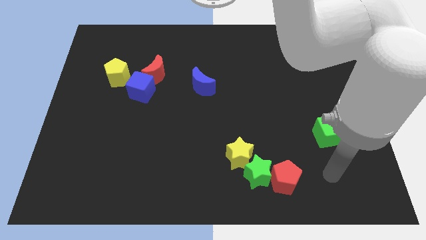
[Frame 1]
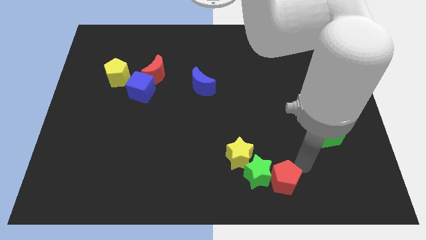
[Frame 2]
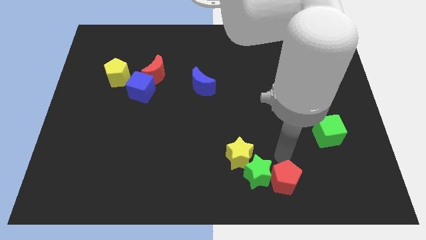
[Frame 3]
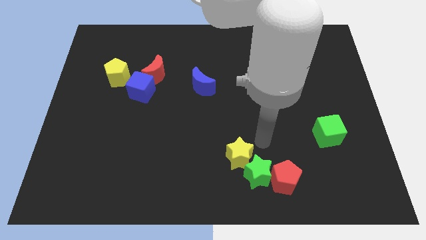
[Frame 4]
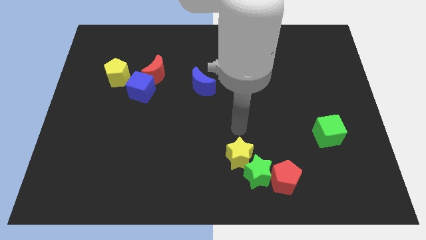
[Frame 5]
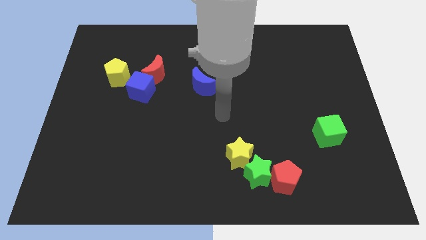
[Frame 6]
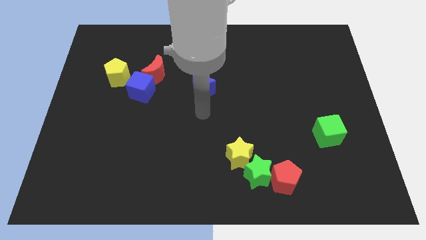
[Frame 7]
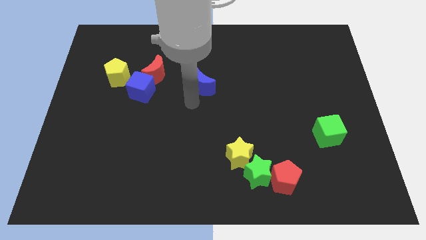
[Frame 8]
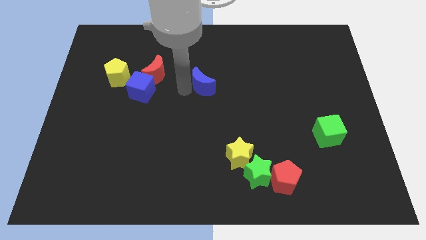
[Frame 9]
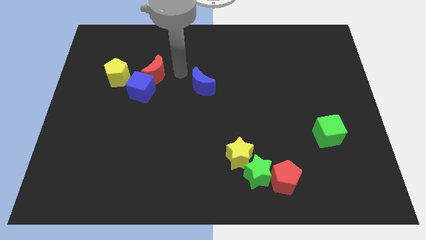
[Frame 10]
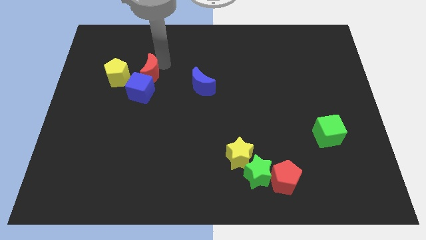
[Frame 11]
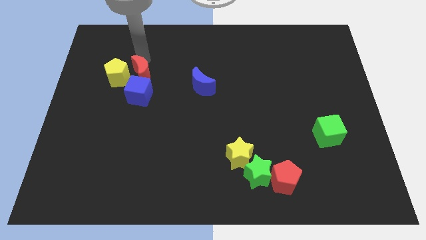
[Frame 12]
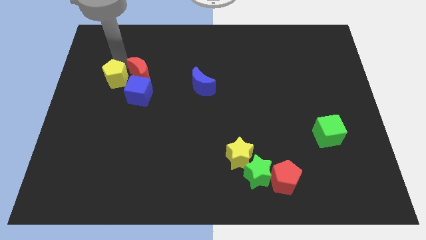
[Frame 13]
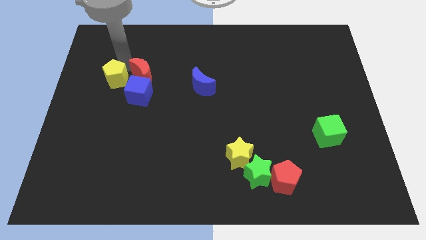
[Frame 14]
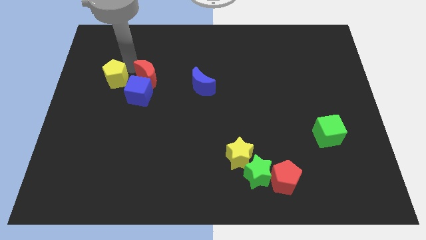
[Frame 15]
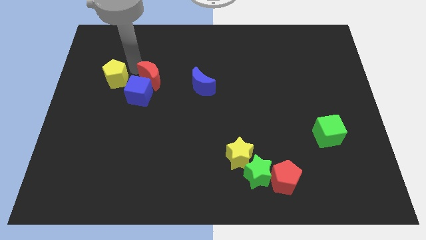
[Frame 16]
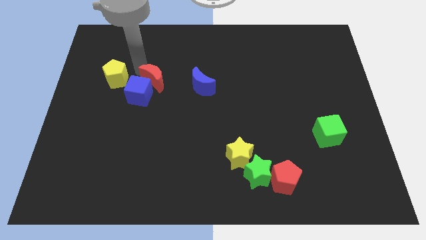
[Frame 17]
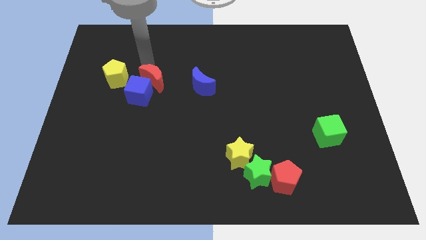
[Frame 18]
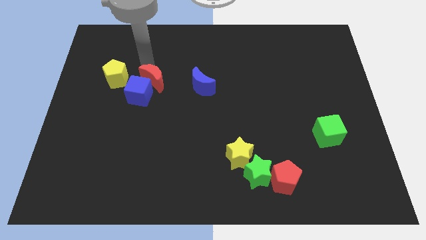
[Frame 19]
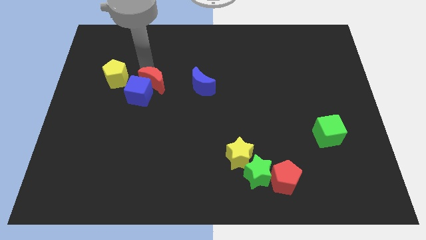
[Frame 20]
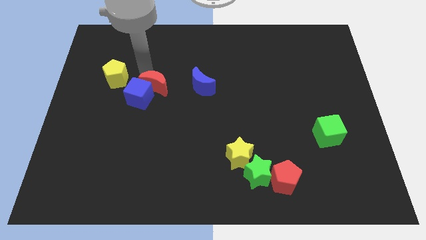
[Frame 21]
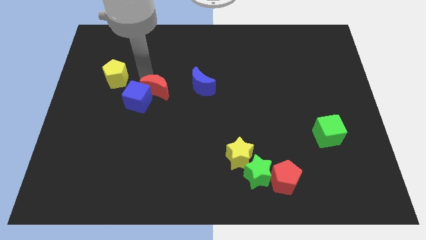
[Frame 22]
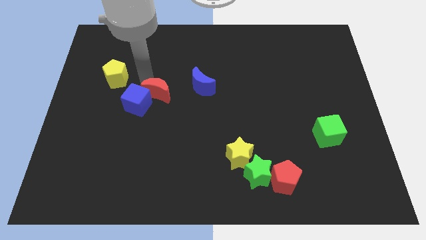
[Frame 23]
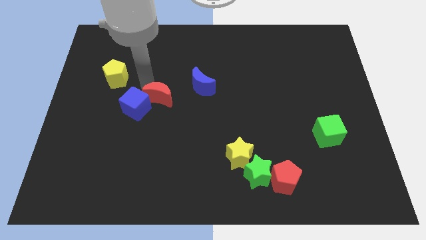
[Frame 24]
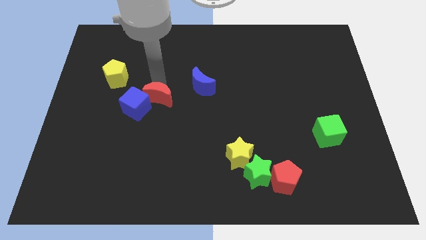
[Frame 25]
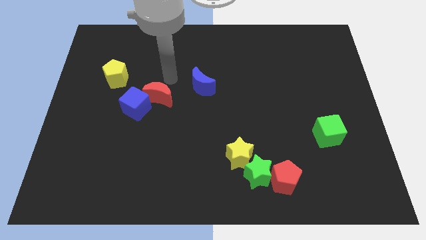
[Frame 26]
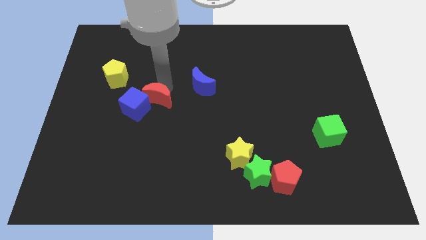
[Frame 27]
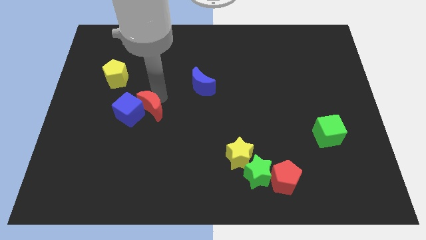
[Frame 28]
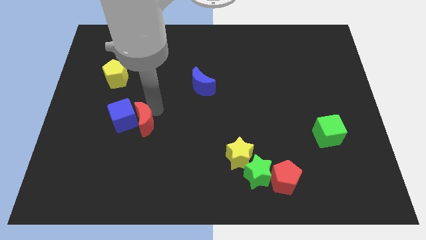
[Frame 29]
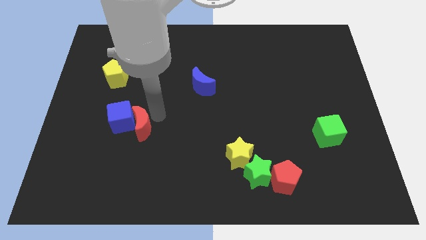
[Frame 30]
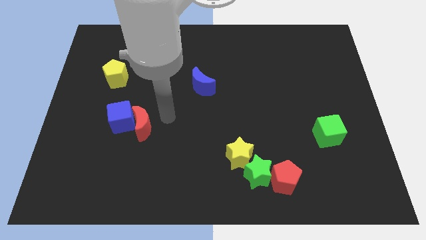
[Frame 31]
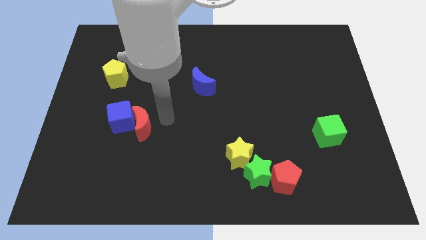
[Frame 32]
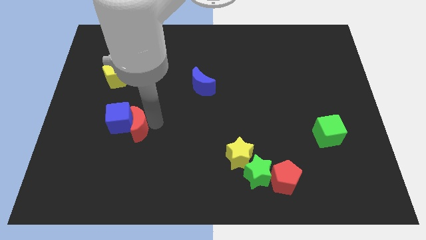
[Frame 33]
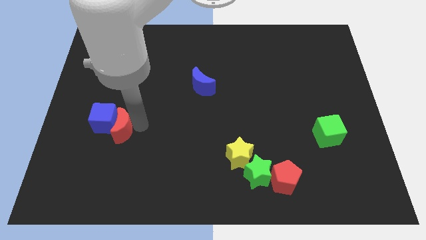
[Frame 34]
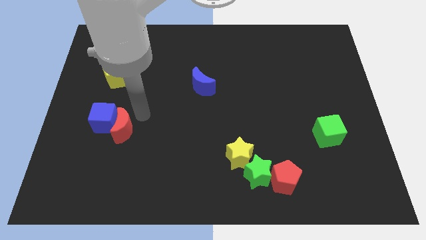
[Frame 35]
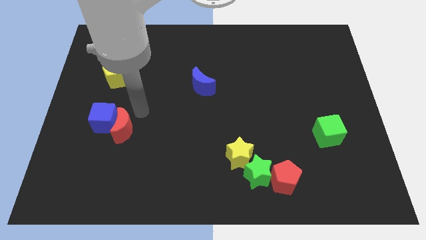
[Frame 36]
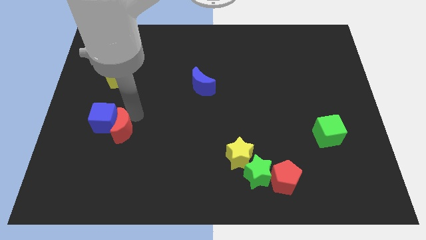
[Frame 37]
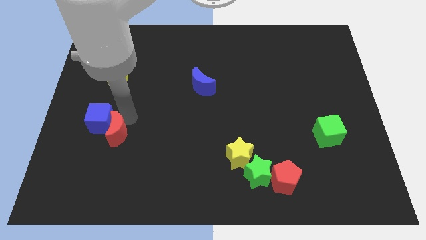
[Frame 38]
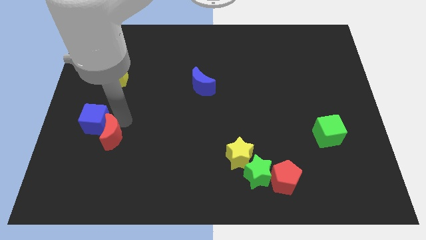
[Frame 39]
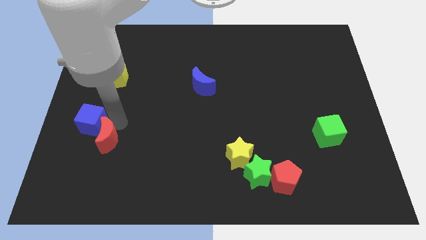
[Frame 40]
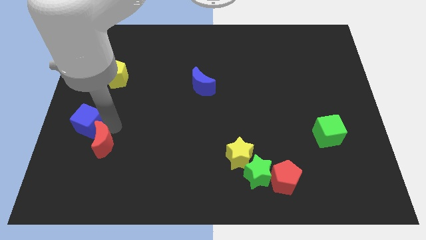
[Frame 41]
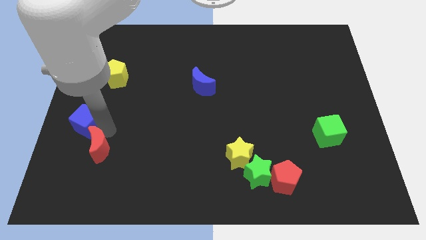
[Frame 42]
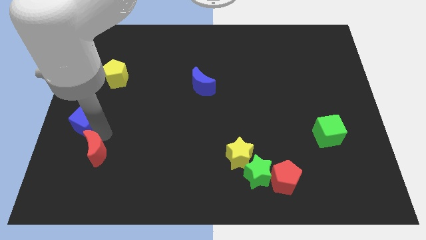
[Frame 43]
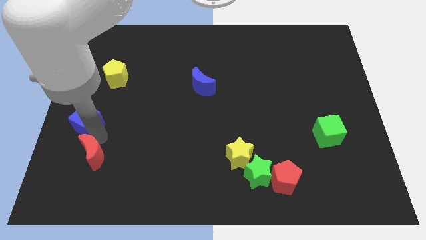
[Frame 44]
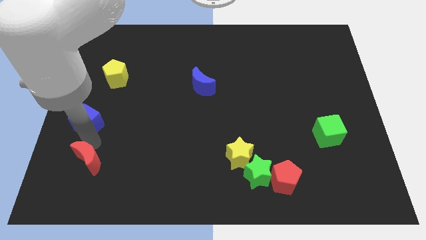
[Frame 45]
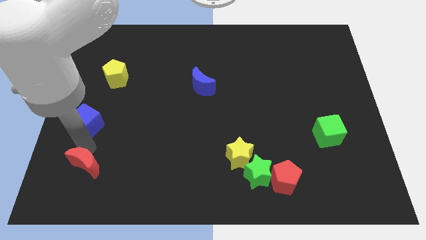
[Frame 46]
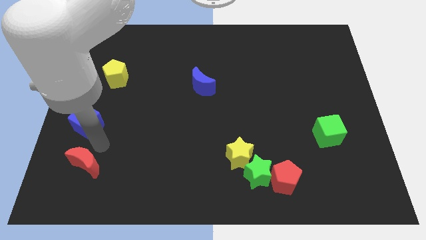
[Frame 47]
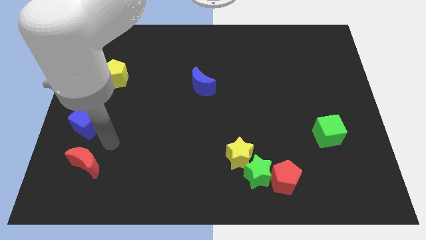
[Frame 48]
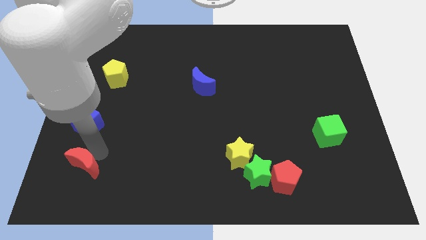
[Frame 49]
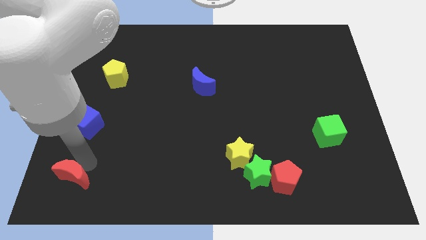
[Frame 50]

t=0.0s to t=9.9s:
slide the red moon to the bottom left of the board

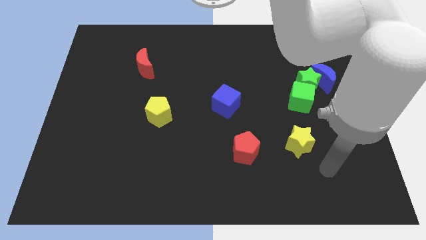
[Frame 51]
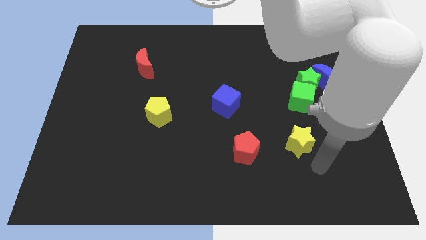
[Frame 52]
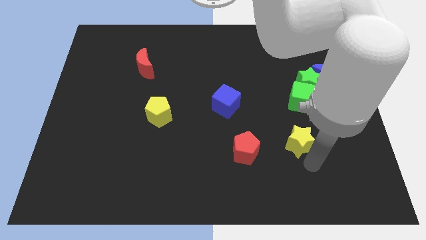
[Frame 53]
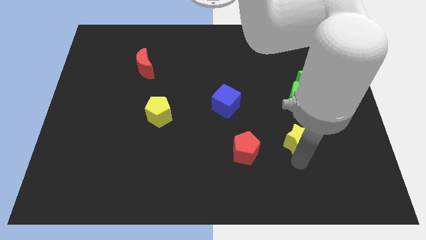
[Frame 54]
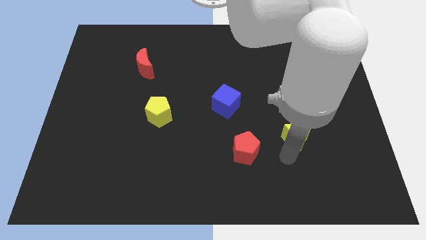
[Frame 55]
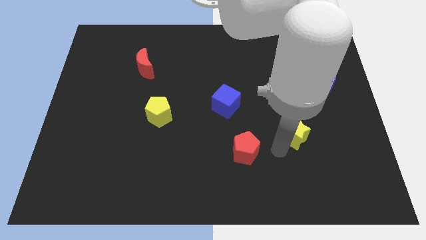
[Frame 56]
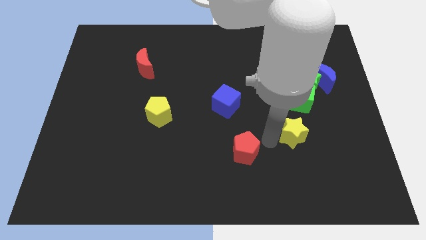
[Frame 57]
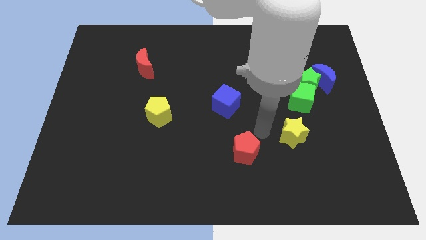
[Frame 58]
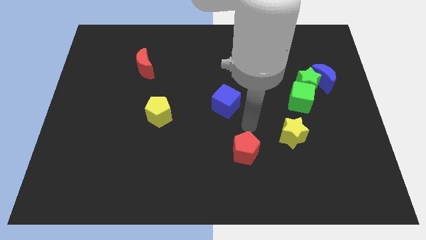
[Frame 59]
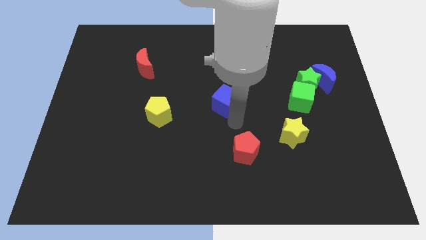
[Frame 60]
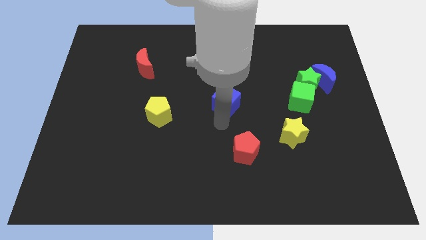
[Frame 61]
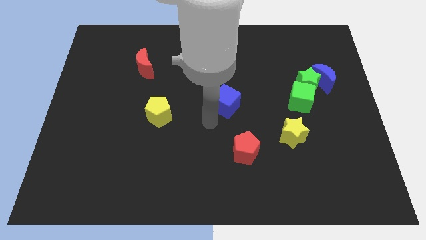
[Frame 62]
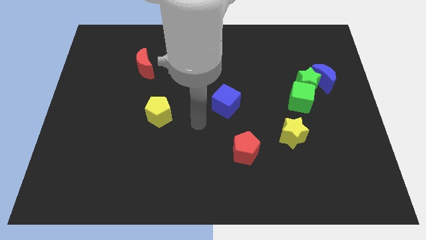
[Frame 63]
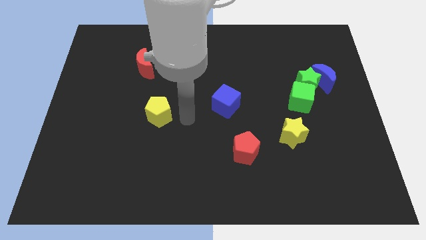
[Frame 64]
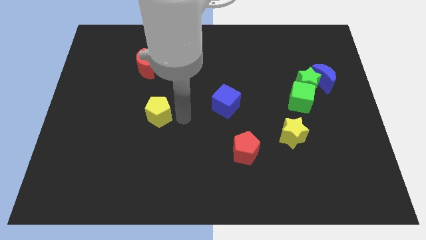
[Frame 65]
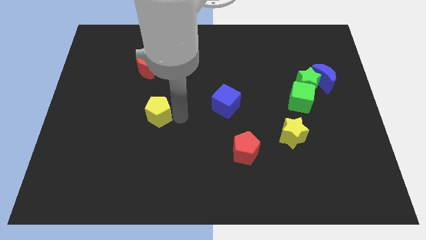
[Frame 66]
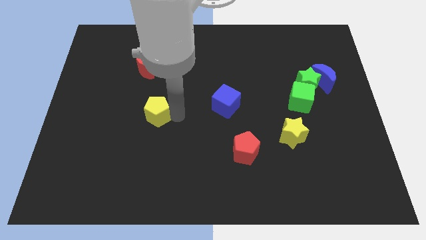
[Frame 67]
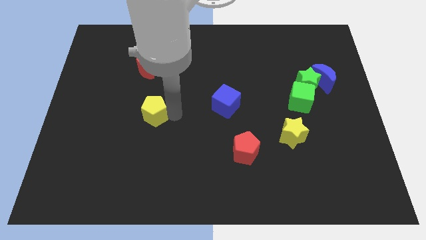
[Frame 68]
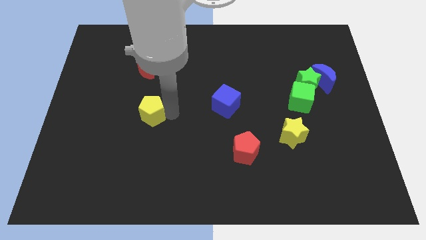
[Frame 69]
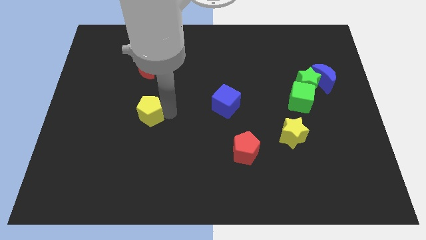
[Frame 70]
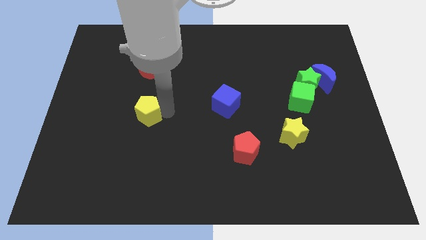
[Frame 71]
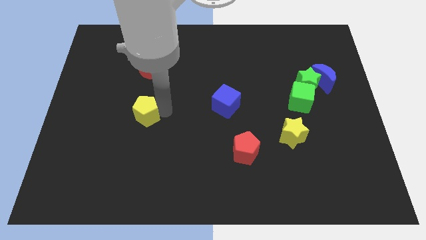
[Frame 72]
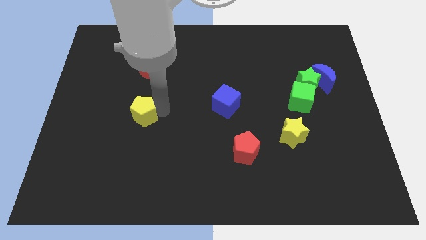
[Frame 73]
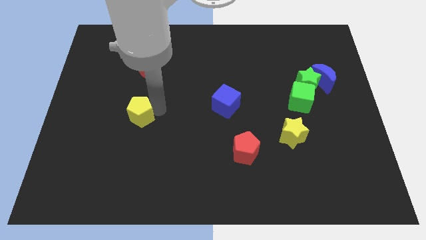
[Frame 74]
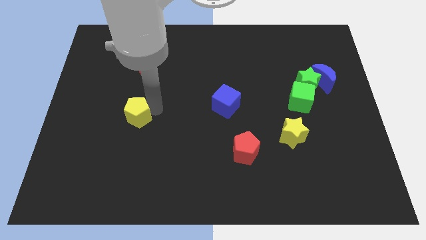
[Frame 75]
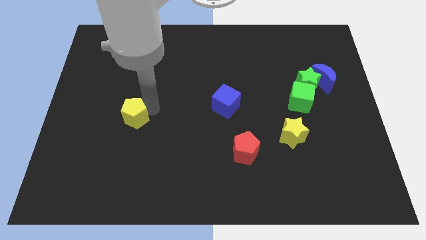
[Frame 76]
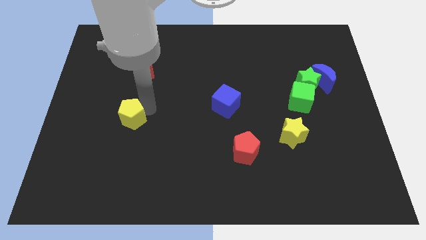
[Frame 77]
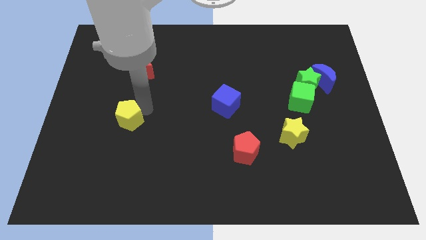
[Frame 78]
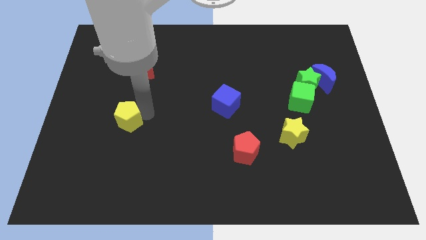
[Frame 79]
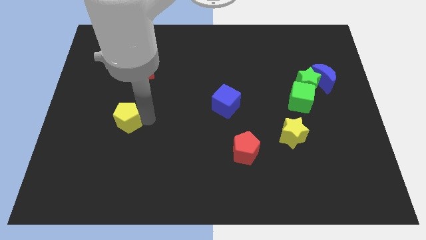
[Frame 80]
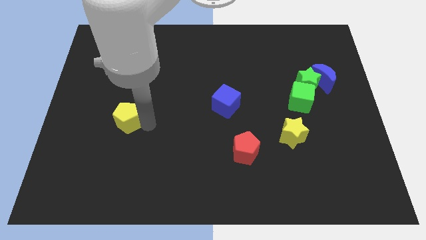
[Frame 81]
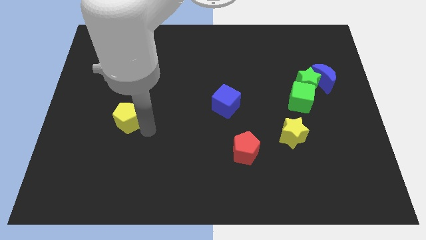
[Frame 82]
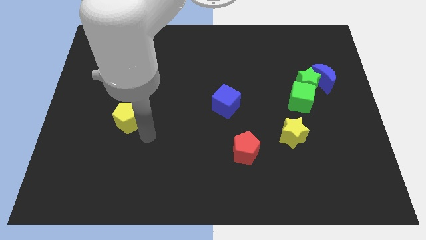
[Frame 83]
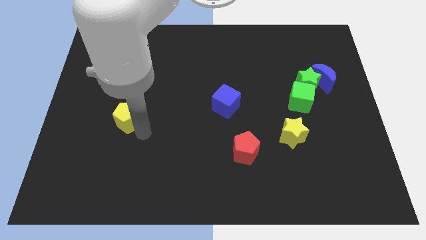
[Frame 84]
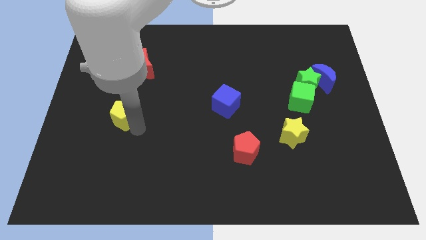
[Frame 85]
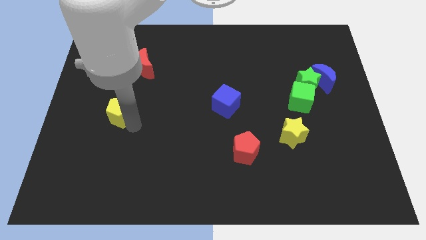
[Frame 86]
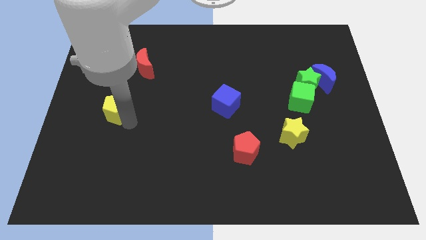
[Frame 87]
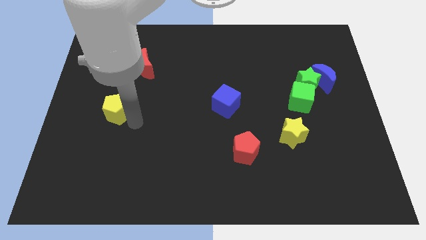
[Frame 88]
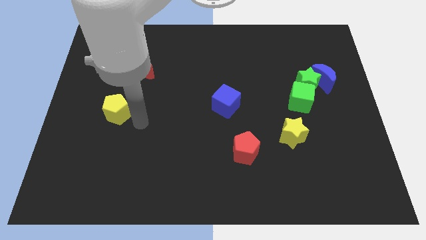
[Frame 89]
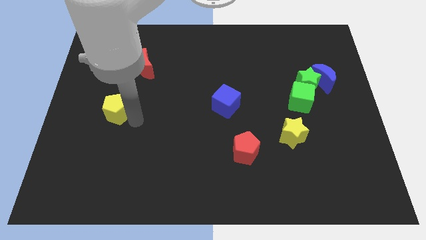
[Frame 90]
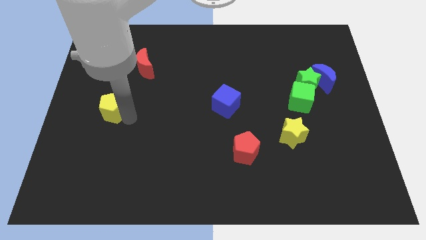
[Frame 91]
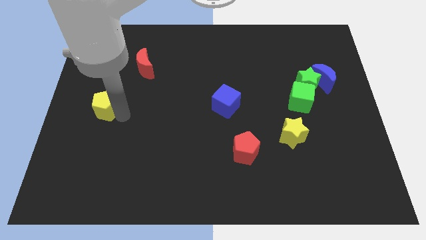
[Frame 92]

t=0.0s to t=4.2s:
push the yellow pentagon to the left side of the board
